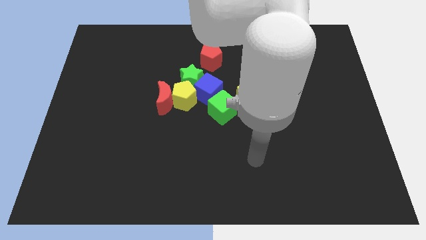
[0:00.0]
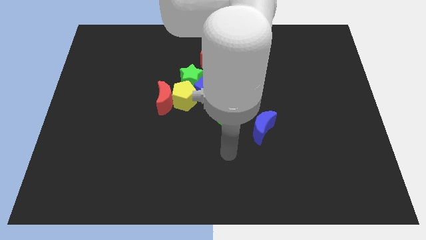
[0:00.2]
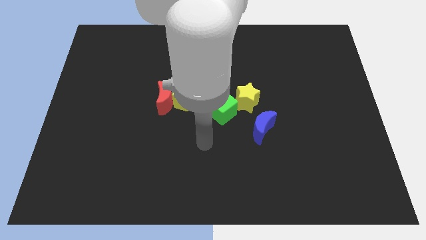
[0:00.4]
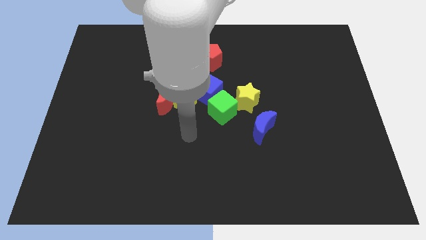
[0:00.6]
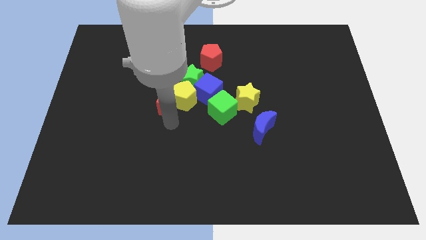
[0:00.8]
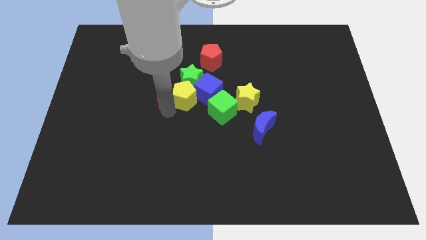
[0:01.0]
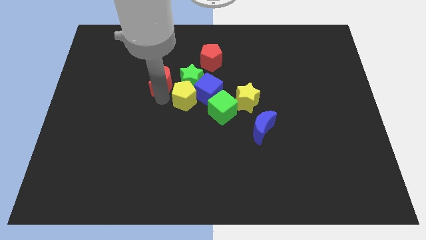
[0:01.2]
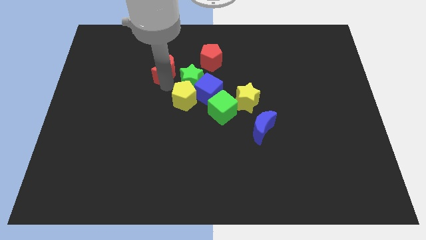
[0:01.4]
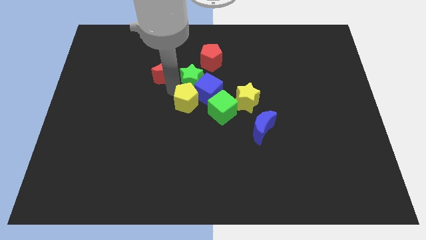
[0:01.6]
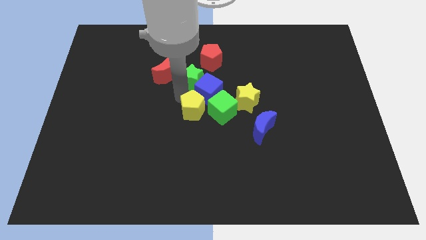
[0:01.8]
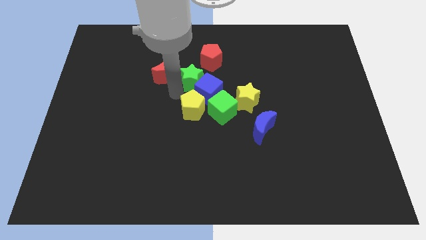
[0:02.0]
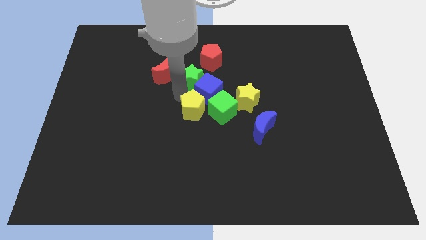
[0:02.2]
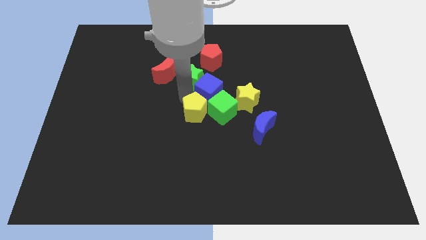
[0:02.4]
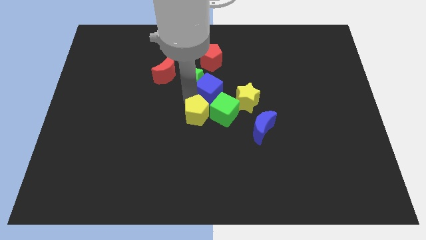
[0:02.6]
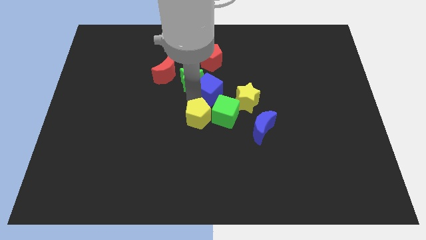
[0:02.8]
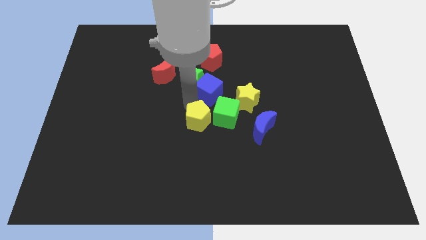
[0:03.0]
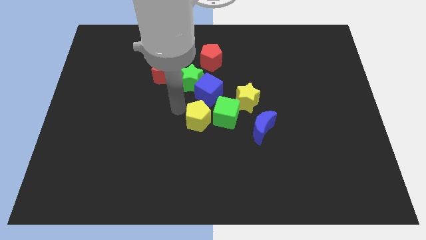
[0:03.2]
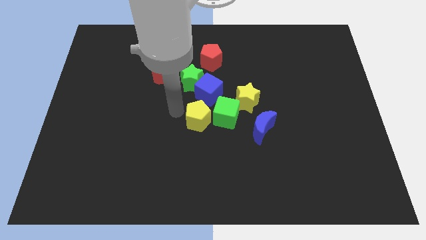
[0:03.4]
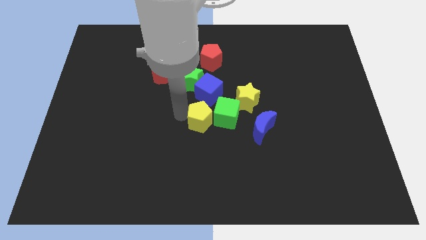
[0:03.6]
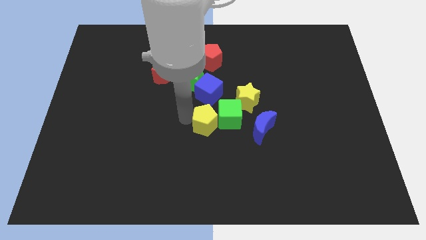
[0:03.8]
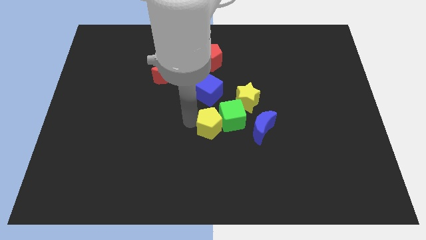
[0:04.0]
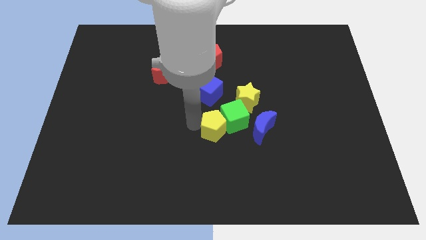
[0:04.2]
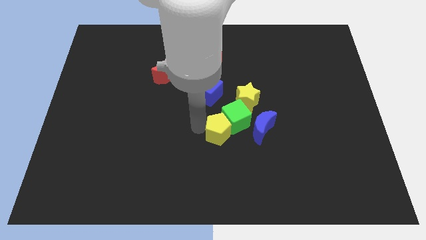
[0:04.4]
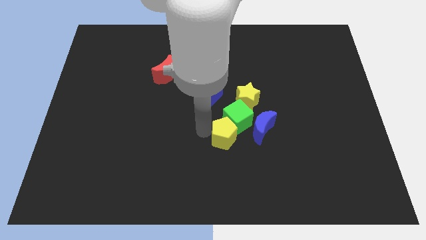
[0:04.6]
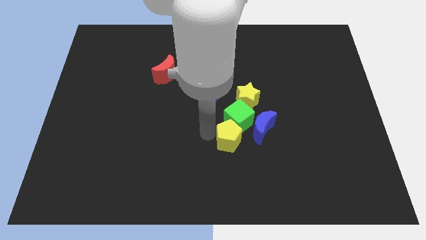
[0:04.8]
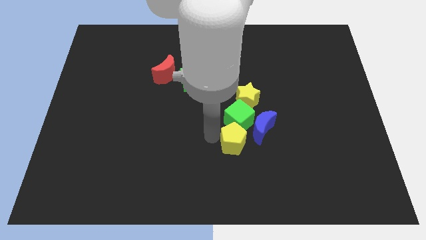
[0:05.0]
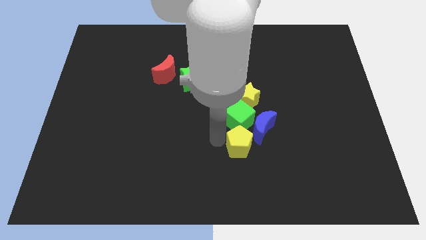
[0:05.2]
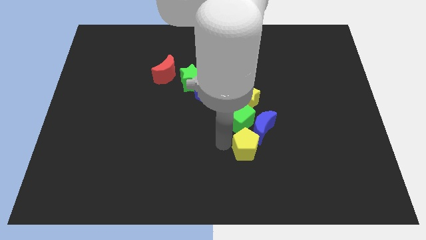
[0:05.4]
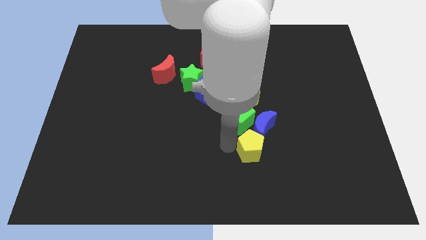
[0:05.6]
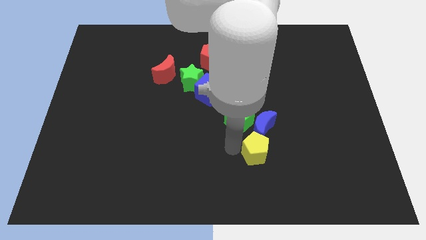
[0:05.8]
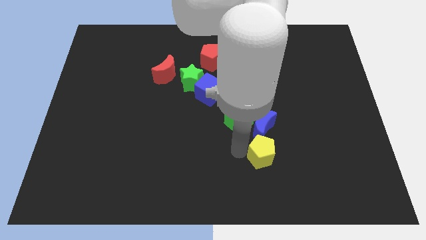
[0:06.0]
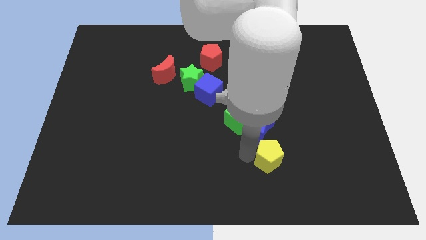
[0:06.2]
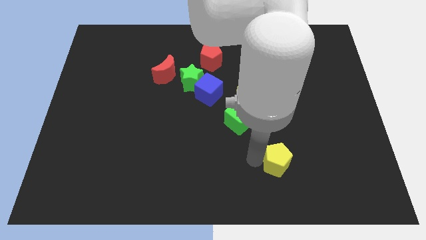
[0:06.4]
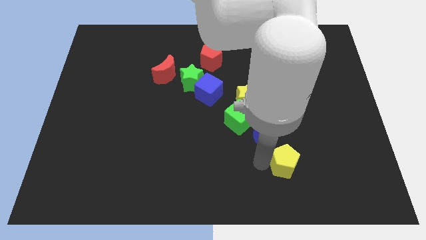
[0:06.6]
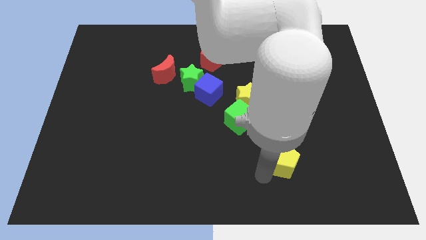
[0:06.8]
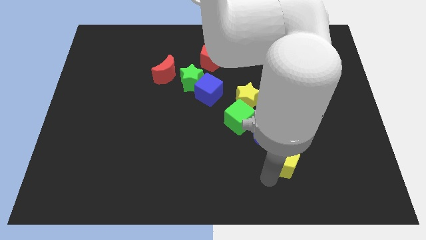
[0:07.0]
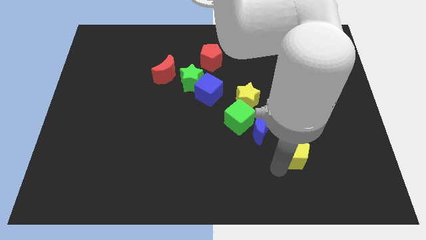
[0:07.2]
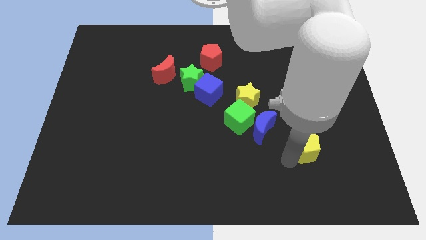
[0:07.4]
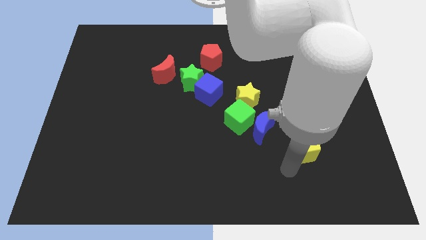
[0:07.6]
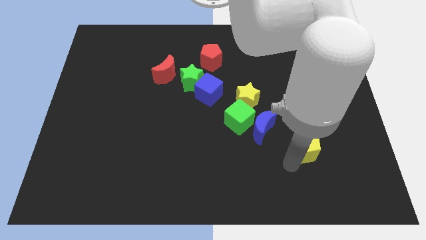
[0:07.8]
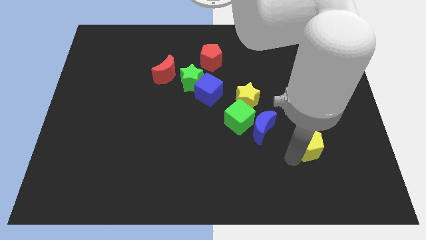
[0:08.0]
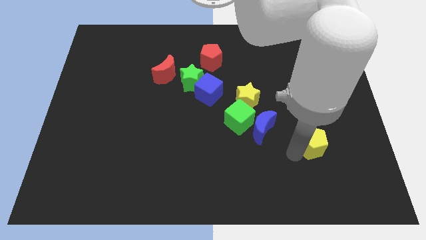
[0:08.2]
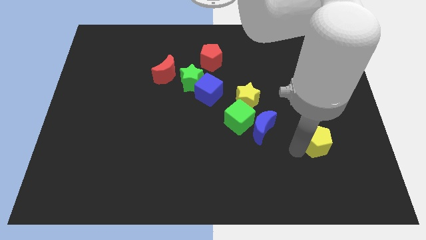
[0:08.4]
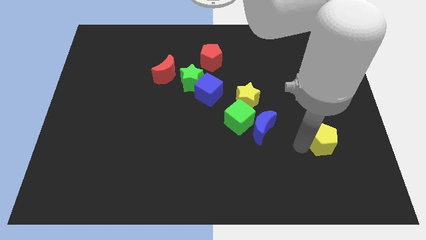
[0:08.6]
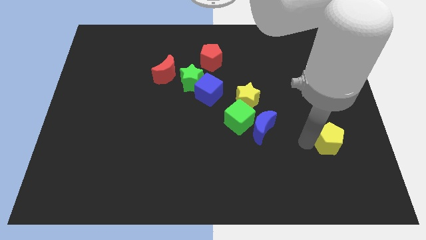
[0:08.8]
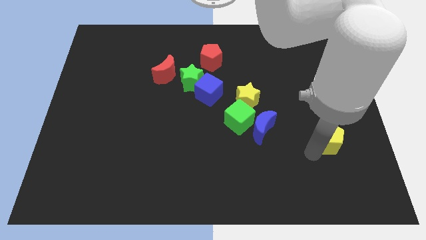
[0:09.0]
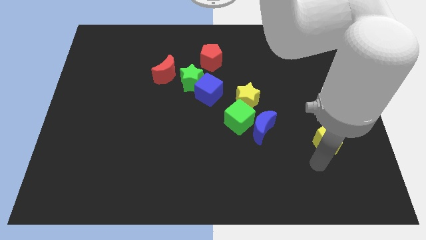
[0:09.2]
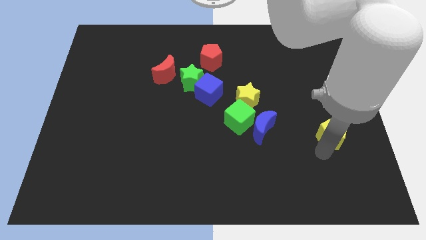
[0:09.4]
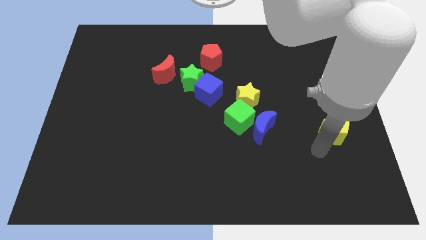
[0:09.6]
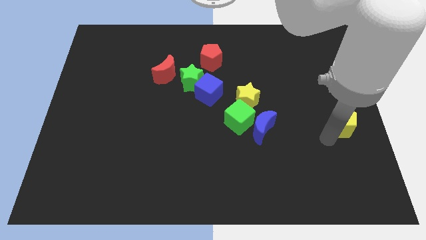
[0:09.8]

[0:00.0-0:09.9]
slide the yellow pentagon to the center right
